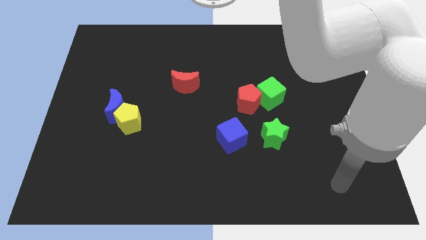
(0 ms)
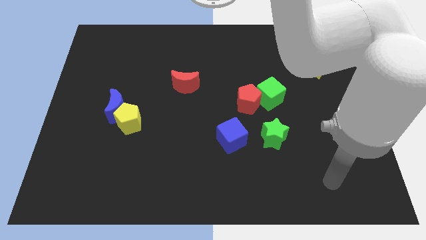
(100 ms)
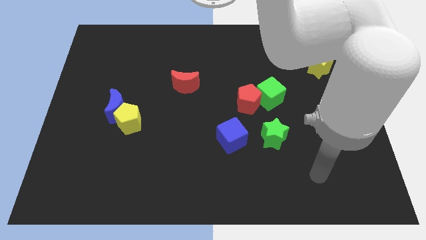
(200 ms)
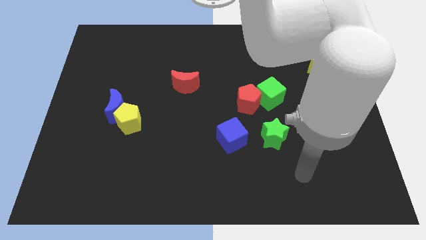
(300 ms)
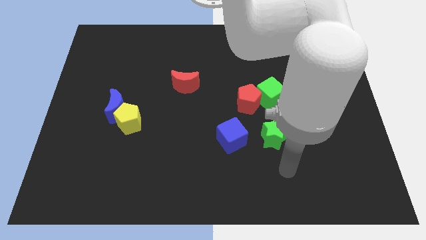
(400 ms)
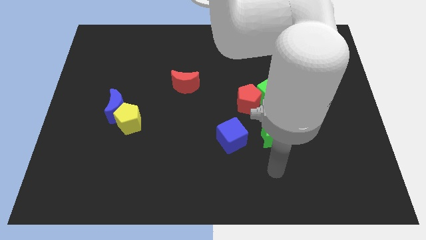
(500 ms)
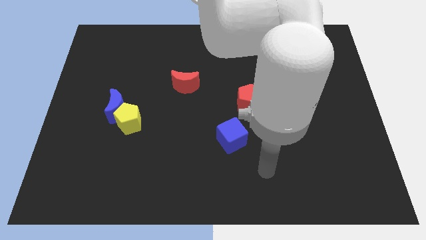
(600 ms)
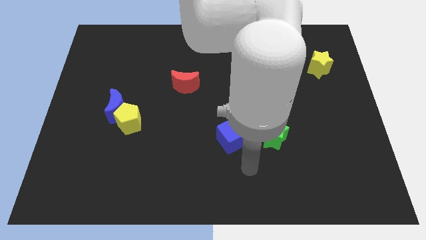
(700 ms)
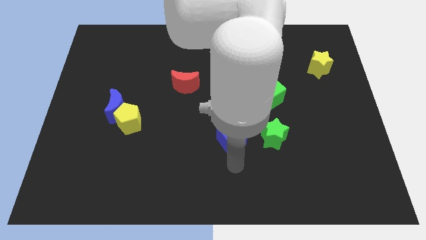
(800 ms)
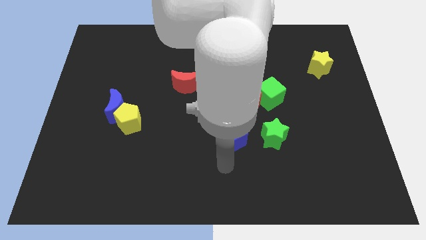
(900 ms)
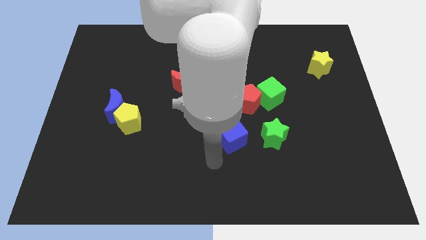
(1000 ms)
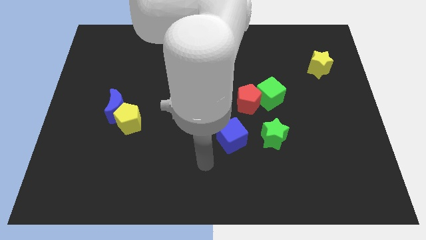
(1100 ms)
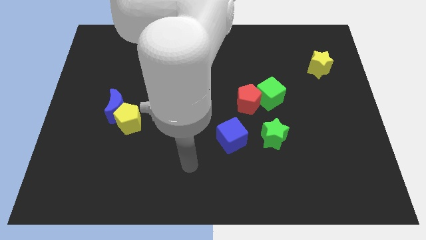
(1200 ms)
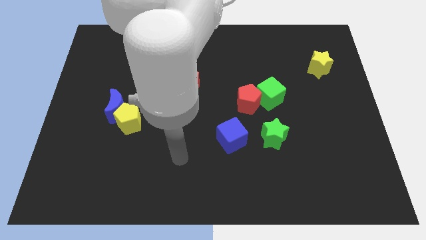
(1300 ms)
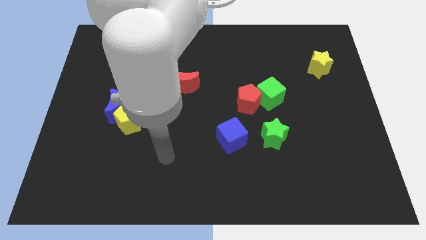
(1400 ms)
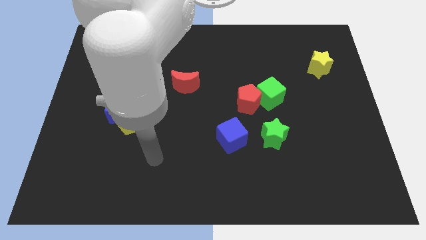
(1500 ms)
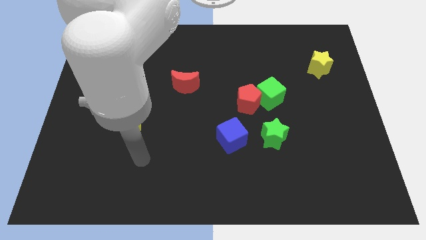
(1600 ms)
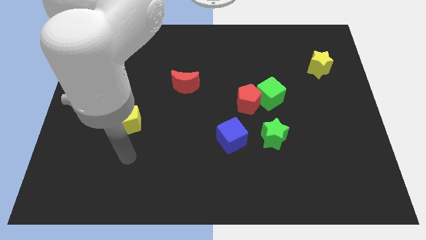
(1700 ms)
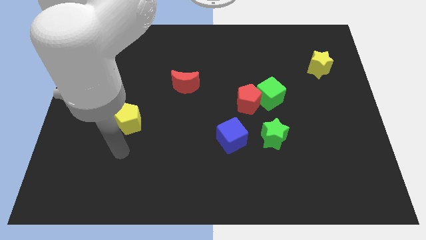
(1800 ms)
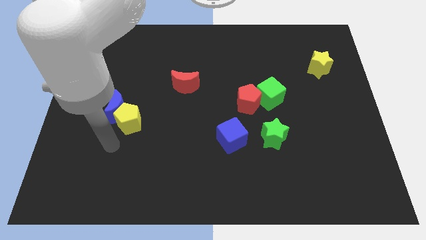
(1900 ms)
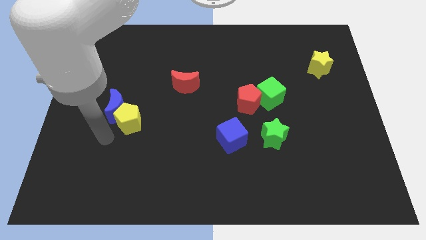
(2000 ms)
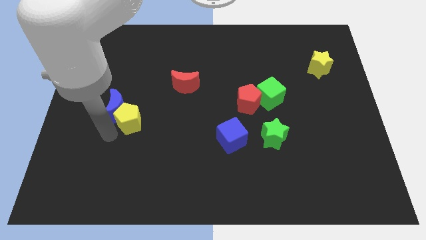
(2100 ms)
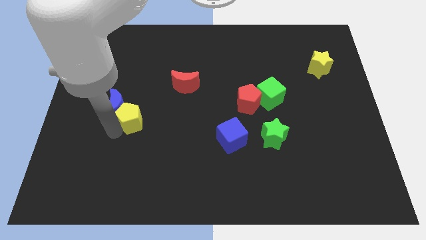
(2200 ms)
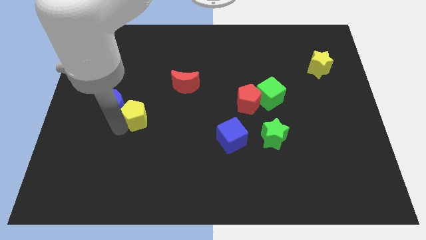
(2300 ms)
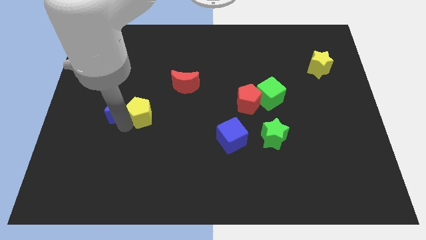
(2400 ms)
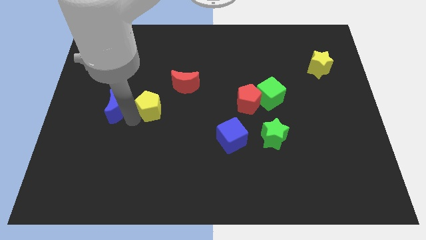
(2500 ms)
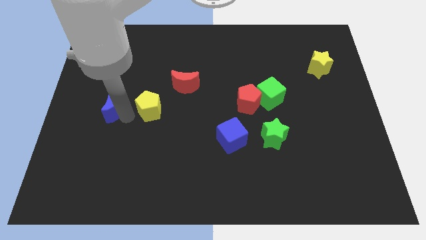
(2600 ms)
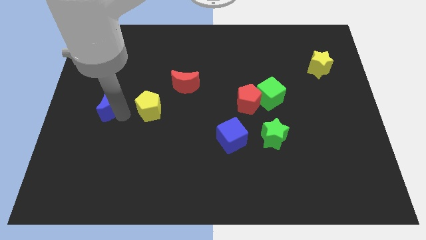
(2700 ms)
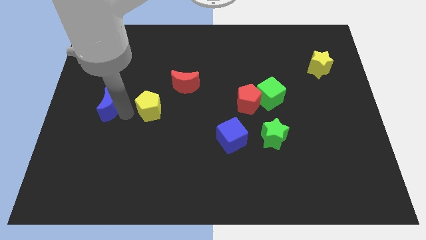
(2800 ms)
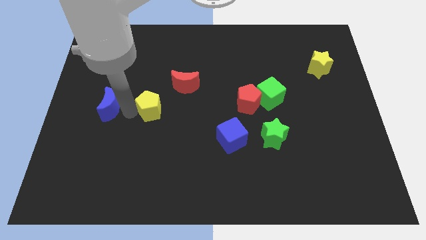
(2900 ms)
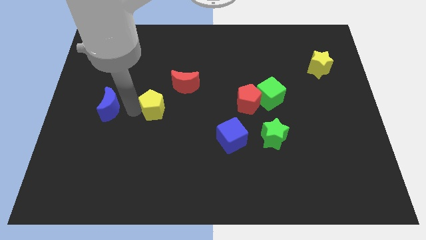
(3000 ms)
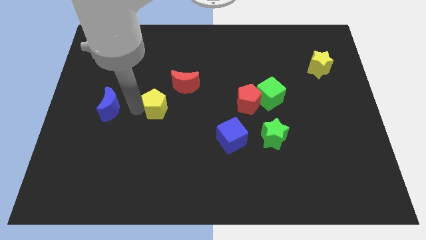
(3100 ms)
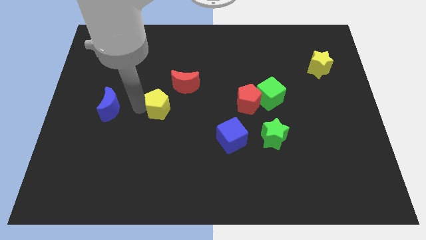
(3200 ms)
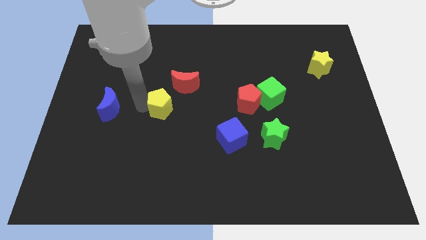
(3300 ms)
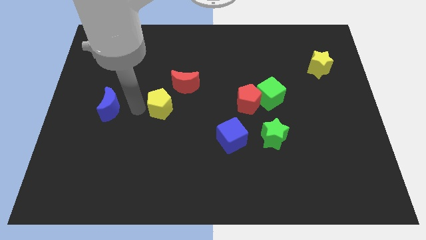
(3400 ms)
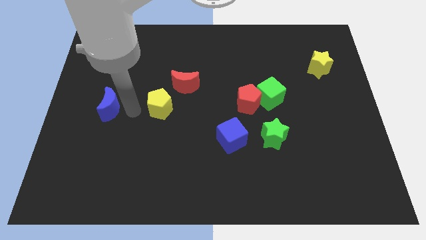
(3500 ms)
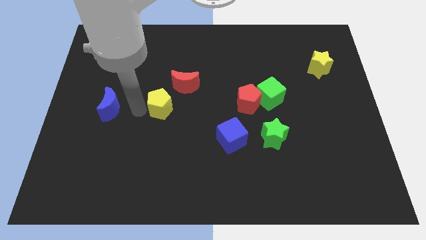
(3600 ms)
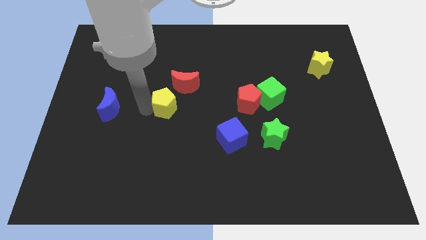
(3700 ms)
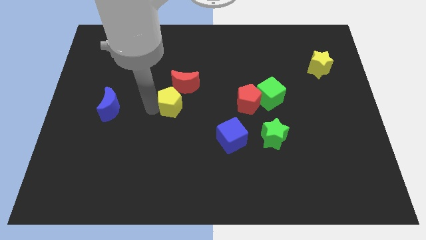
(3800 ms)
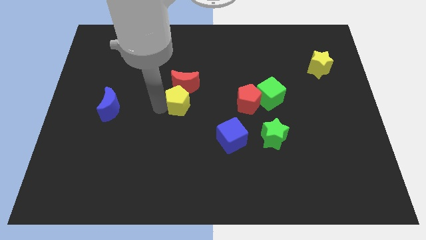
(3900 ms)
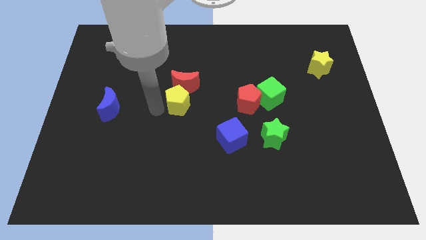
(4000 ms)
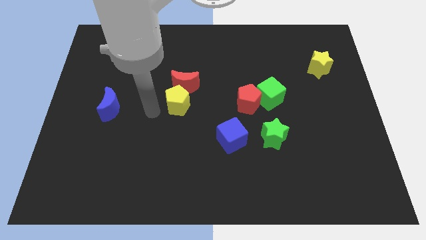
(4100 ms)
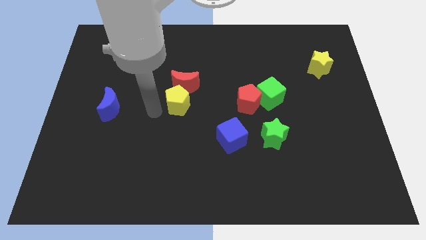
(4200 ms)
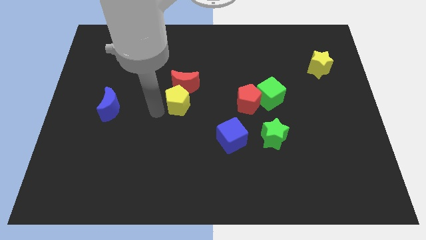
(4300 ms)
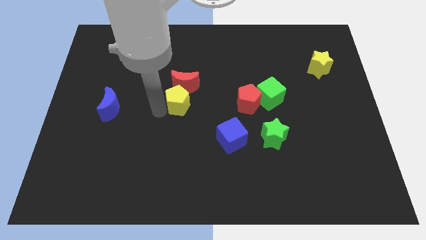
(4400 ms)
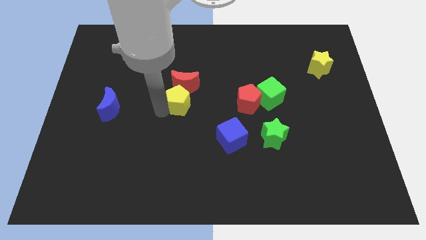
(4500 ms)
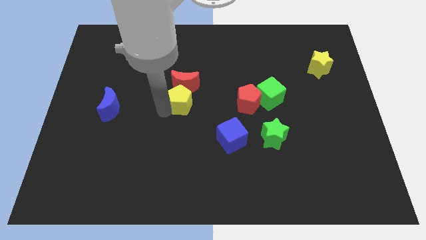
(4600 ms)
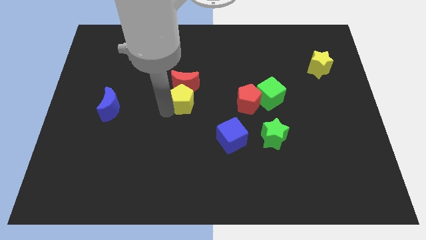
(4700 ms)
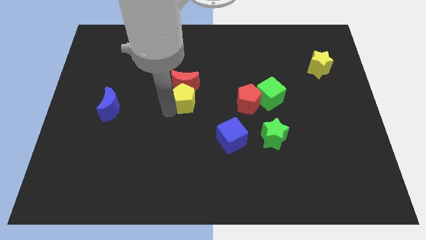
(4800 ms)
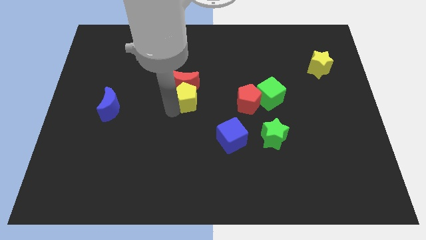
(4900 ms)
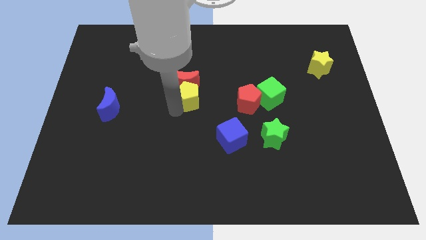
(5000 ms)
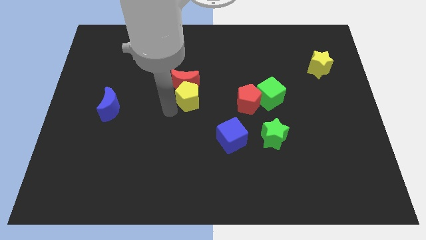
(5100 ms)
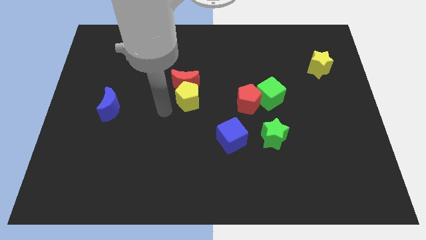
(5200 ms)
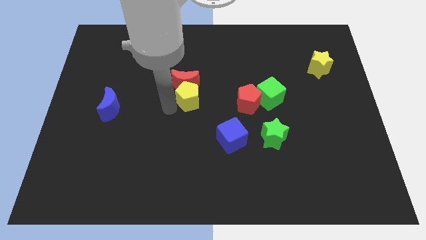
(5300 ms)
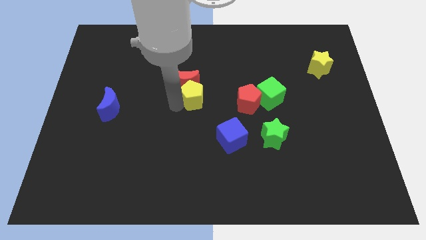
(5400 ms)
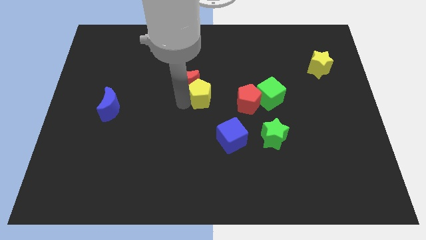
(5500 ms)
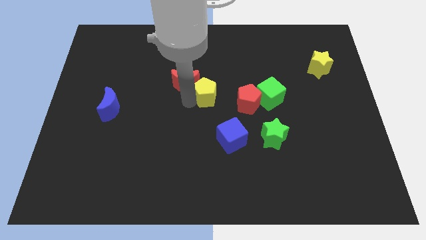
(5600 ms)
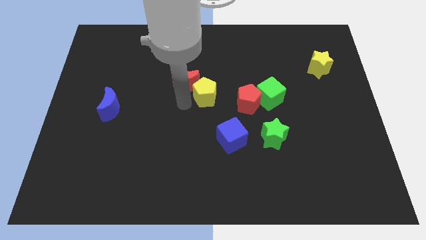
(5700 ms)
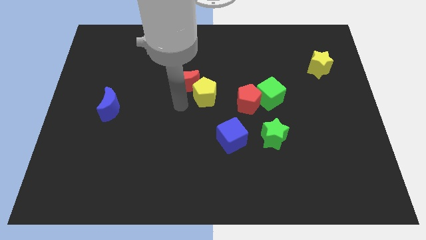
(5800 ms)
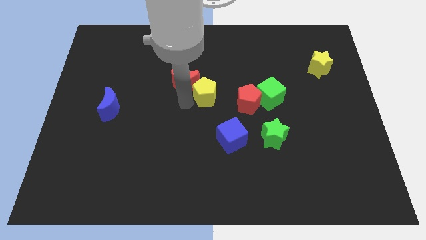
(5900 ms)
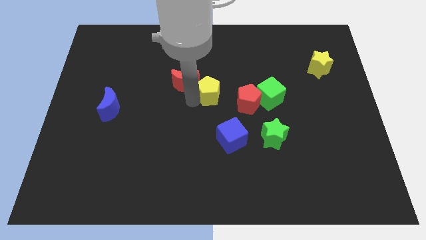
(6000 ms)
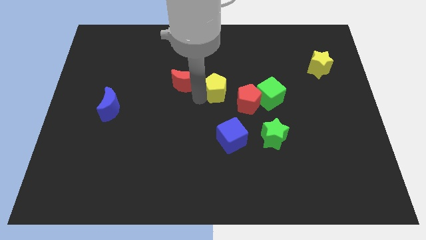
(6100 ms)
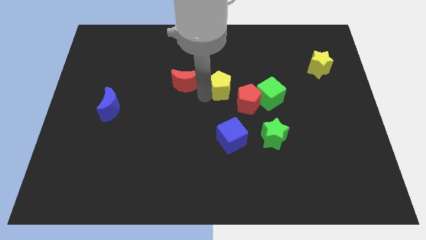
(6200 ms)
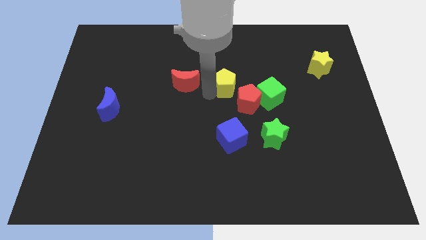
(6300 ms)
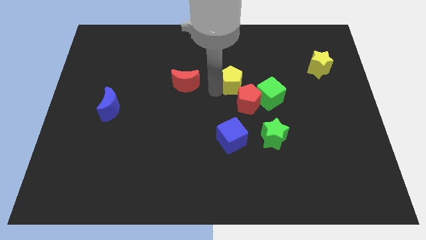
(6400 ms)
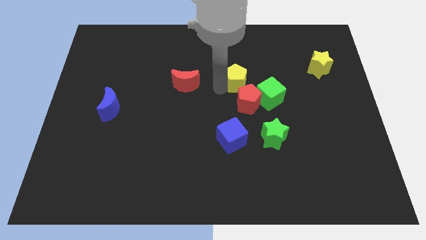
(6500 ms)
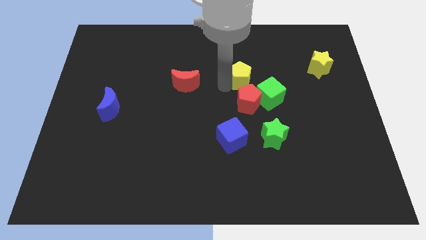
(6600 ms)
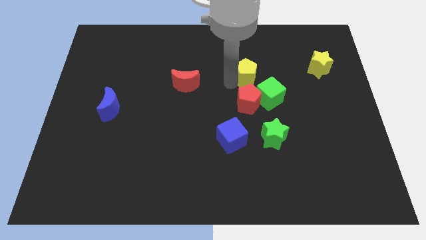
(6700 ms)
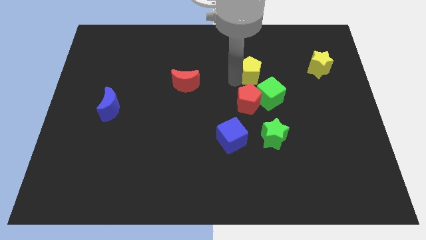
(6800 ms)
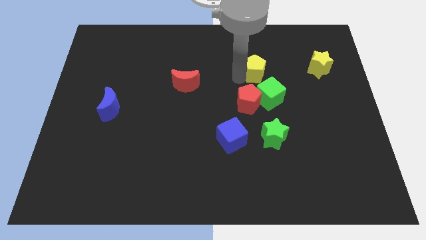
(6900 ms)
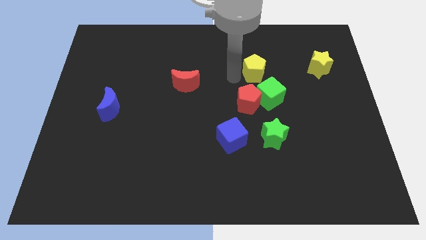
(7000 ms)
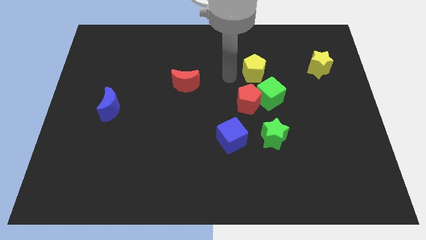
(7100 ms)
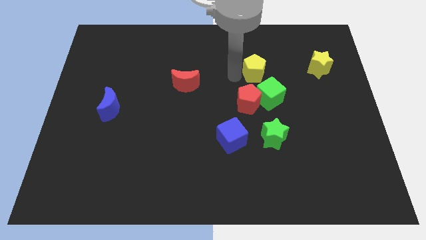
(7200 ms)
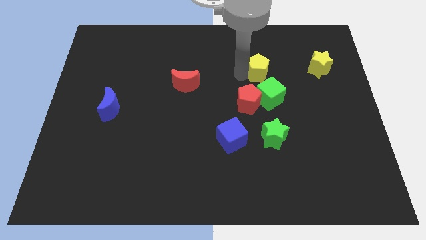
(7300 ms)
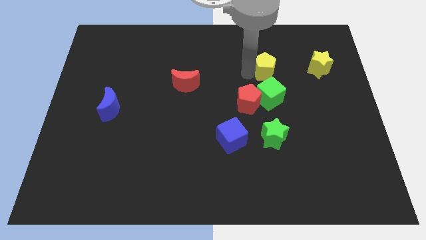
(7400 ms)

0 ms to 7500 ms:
slide the yellow pentagon just left of the yellow star

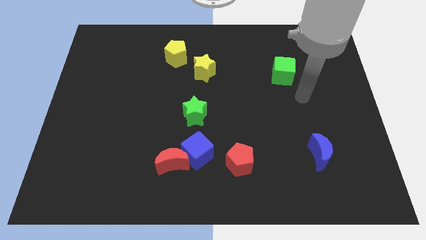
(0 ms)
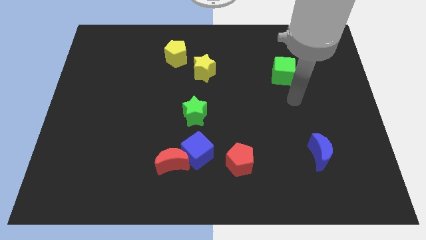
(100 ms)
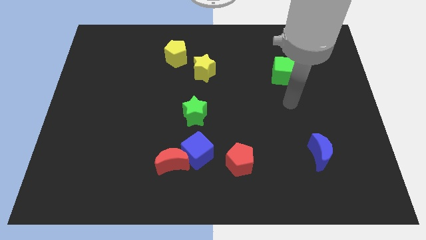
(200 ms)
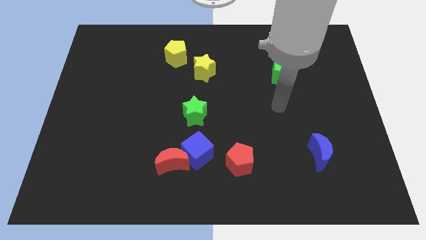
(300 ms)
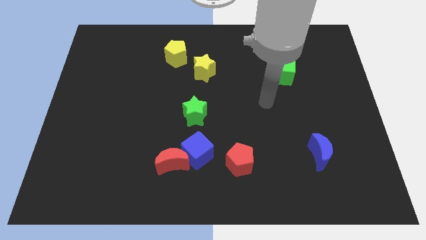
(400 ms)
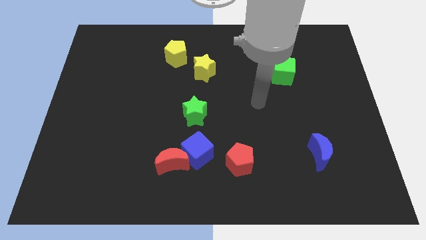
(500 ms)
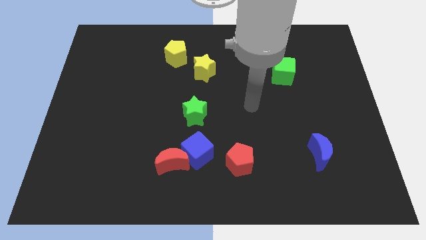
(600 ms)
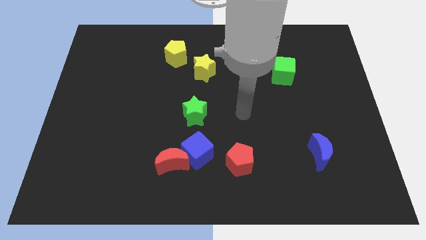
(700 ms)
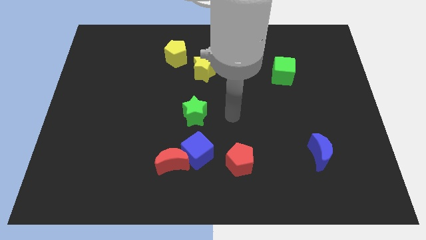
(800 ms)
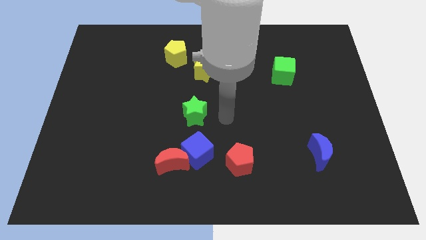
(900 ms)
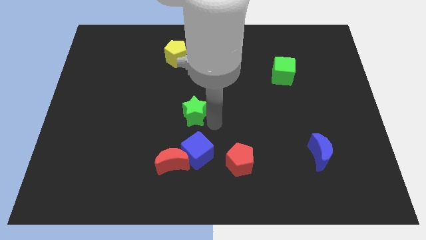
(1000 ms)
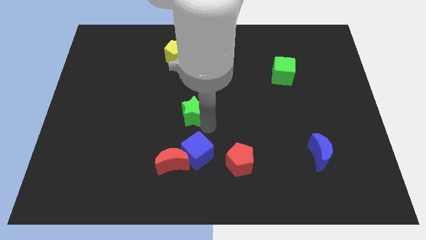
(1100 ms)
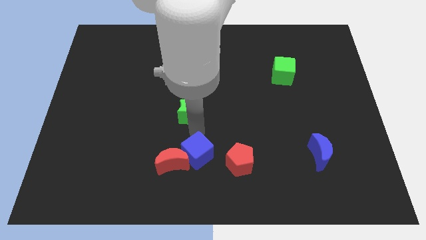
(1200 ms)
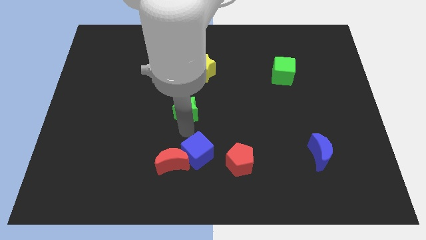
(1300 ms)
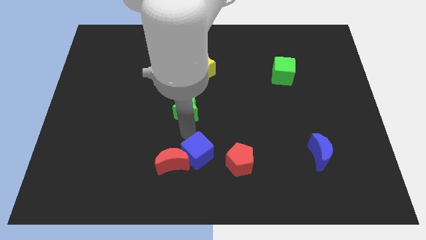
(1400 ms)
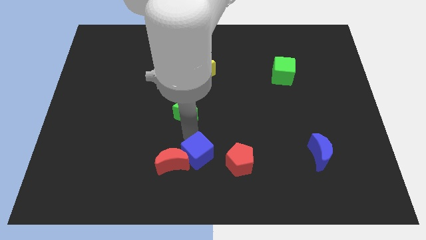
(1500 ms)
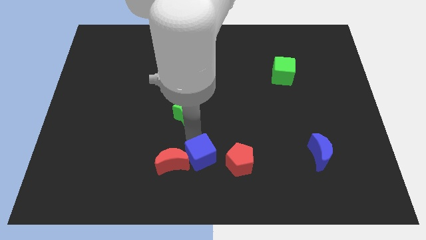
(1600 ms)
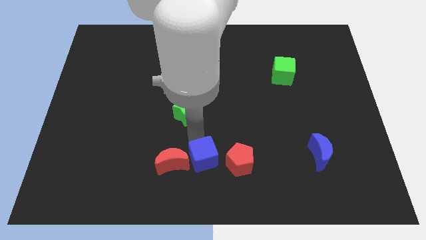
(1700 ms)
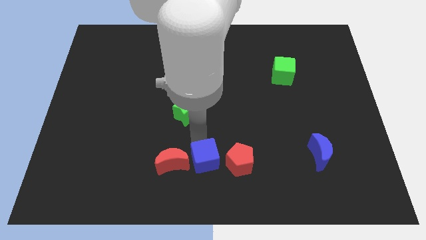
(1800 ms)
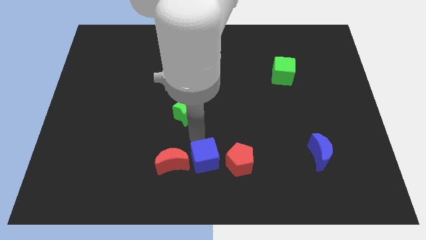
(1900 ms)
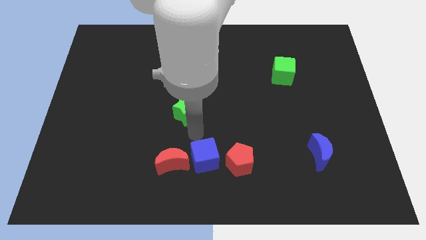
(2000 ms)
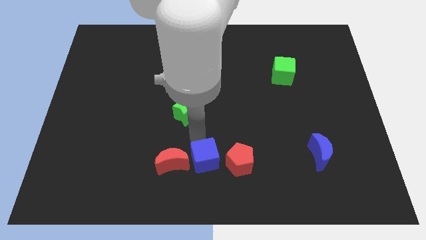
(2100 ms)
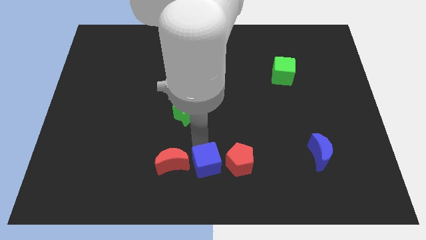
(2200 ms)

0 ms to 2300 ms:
put the blue cube diagonally down and to the left of the red pentagon
